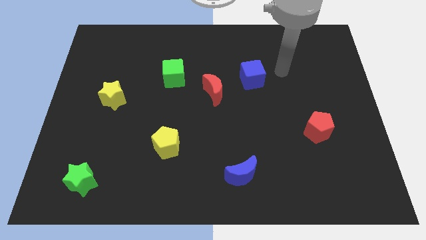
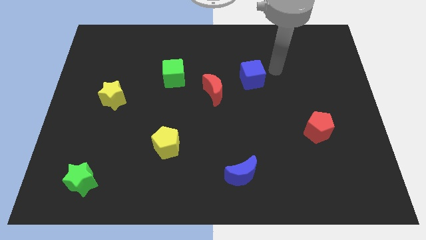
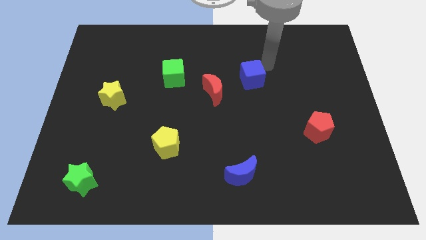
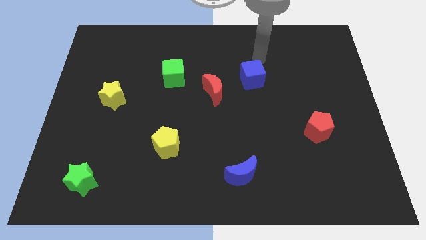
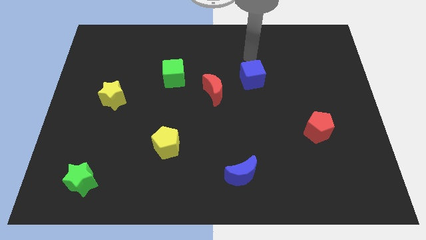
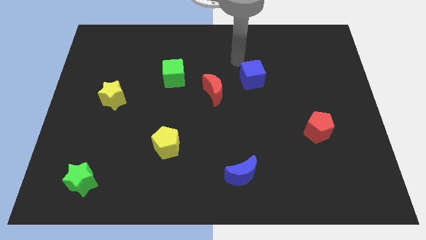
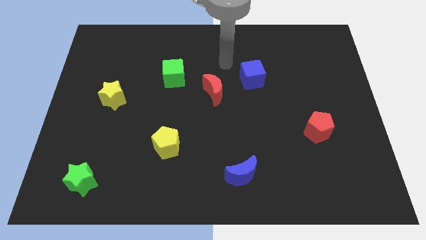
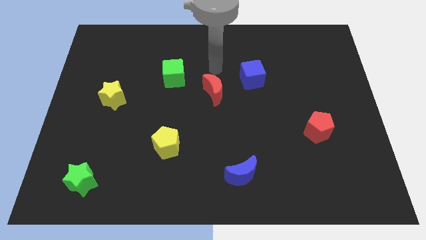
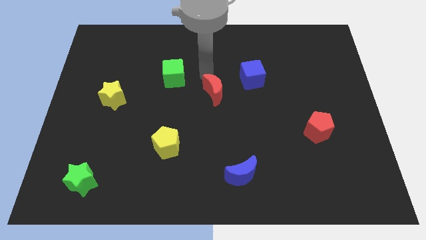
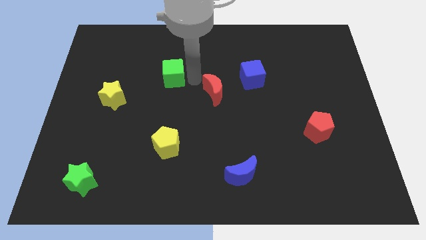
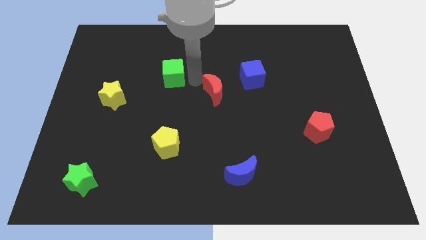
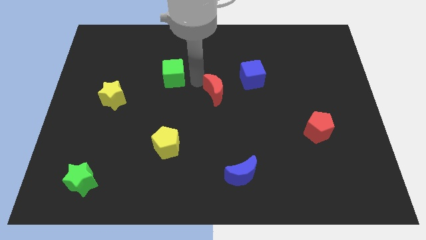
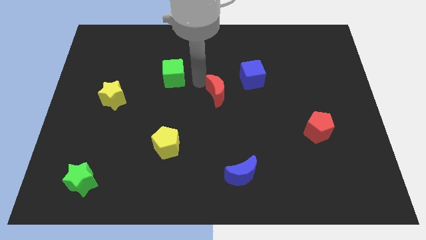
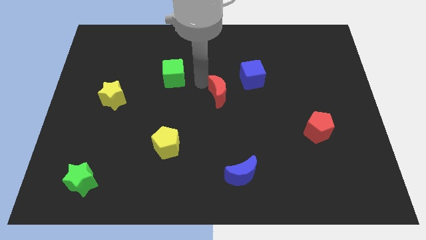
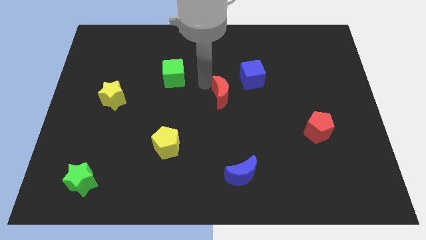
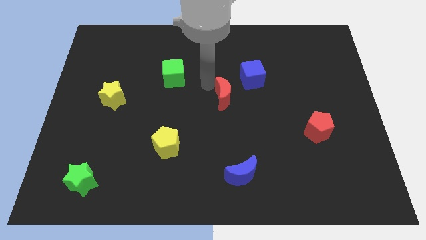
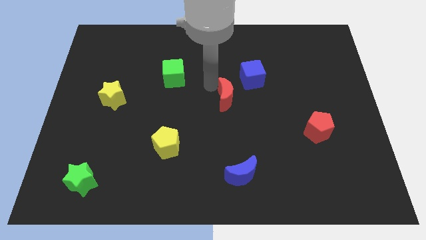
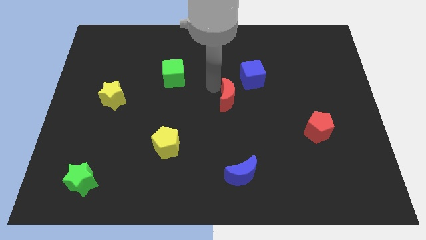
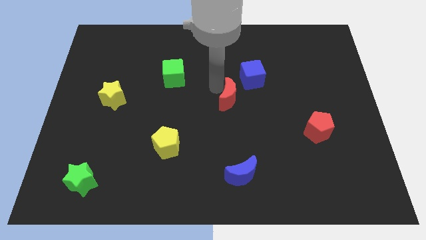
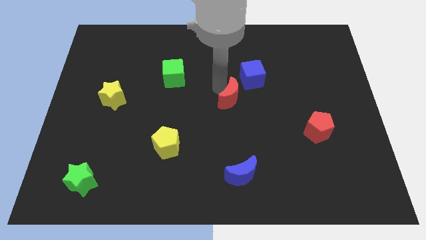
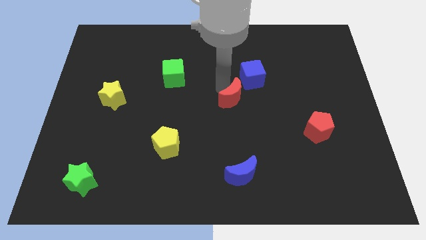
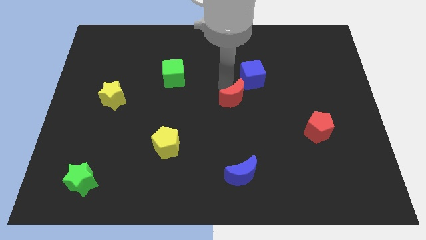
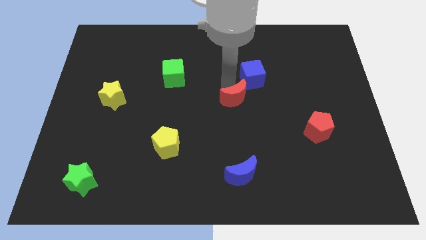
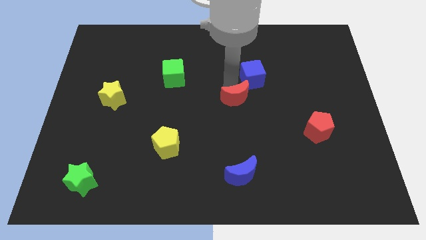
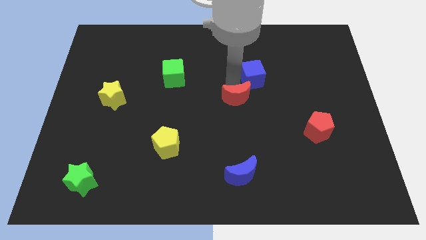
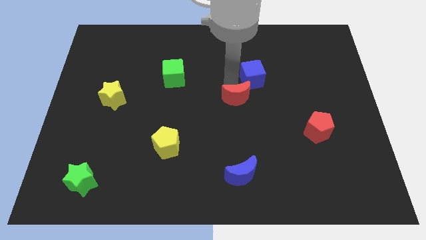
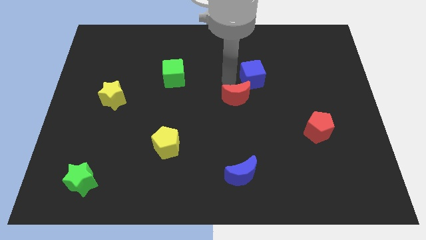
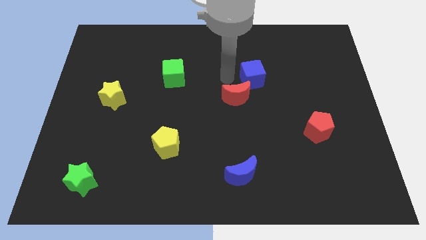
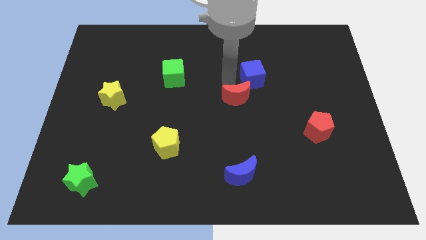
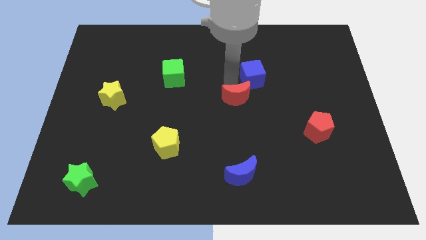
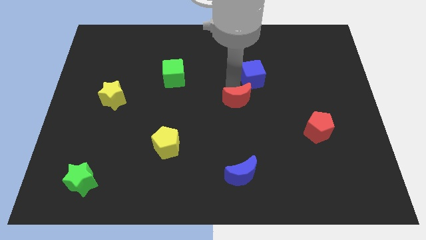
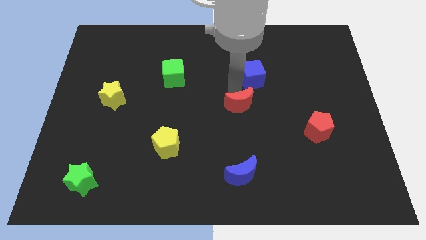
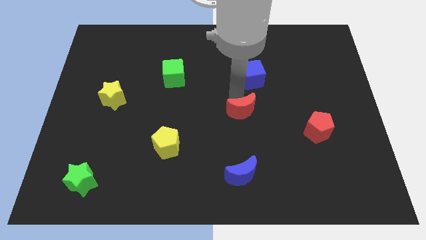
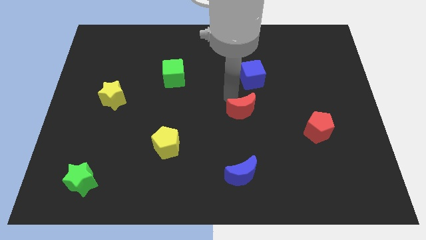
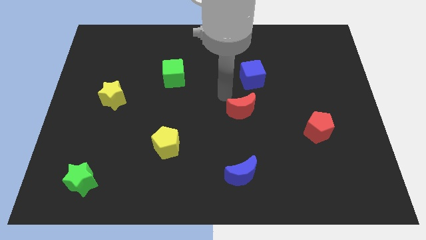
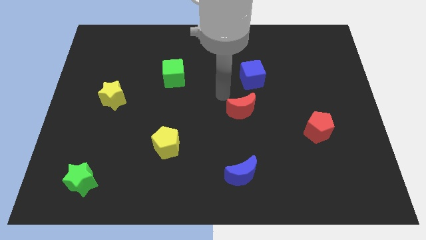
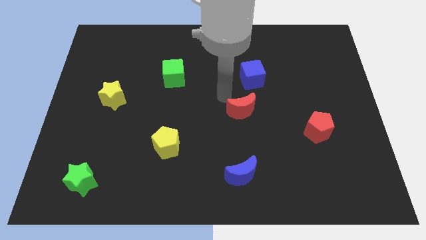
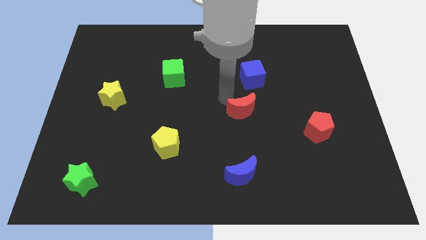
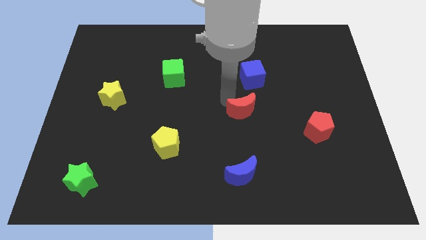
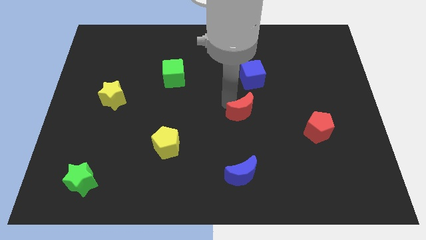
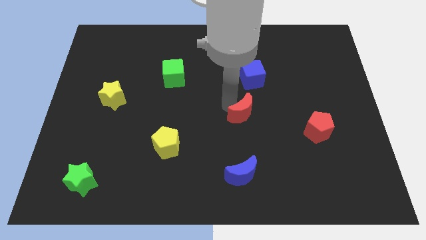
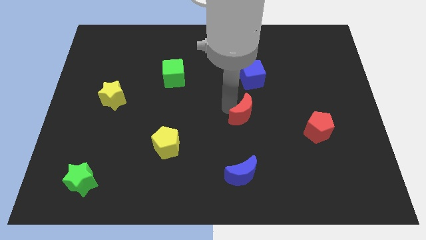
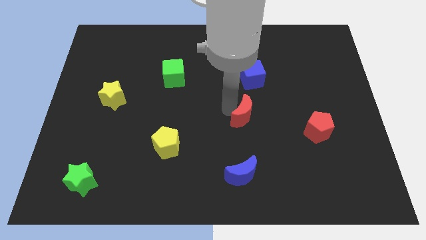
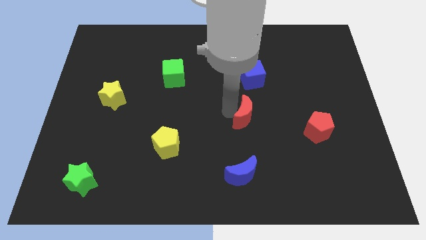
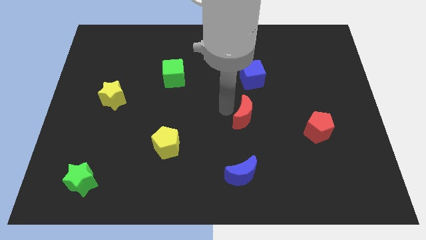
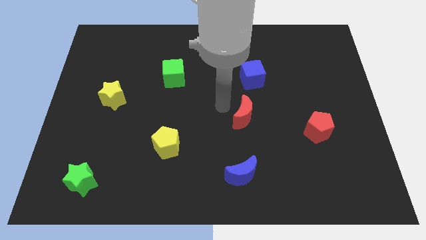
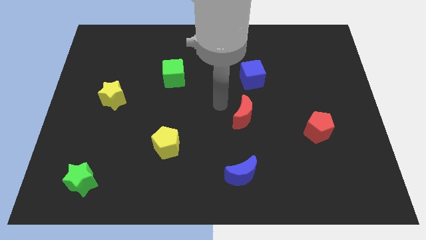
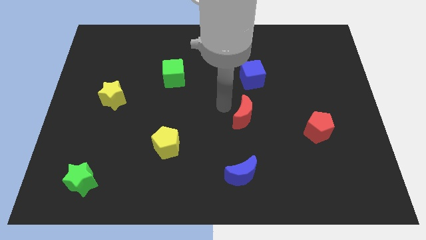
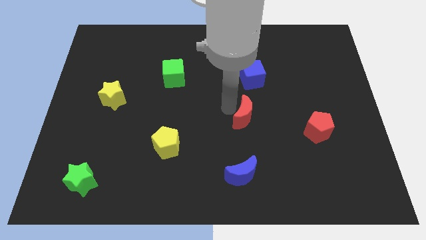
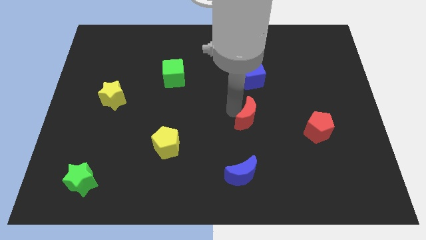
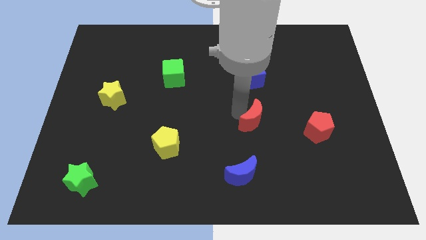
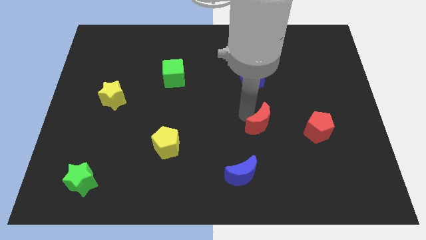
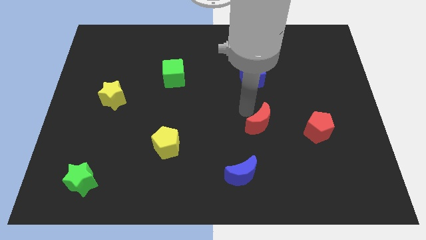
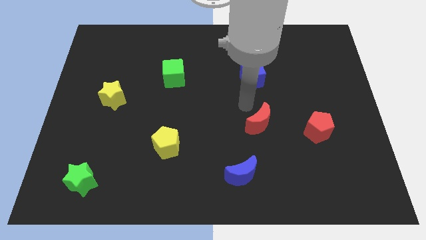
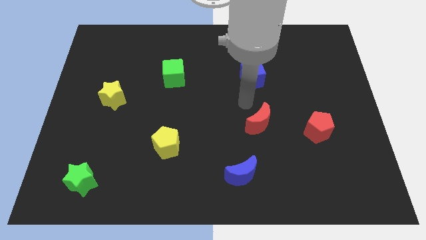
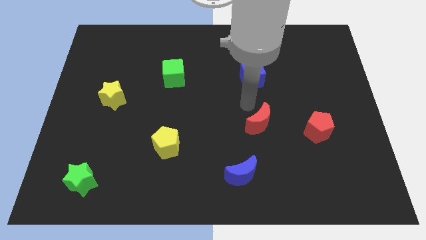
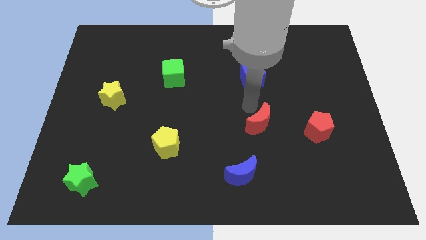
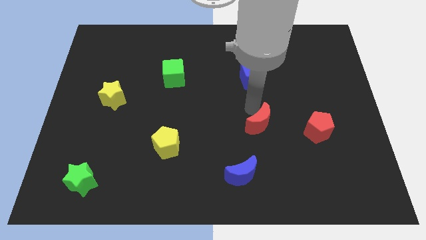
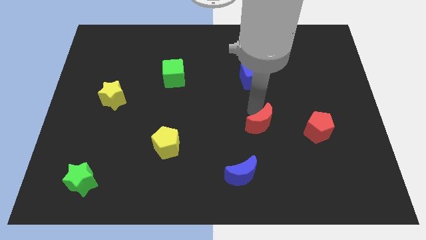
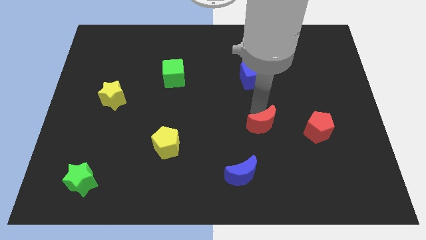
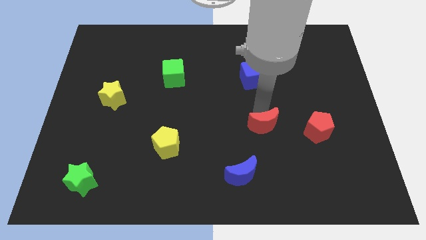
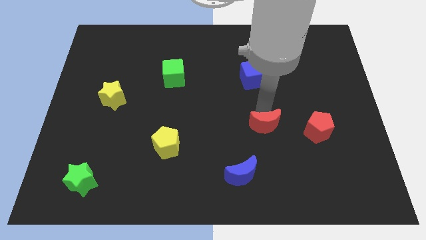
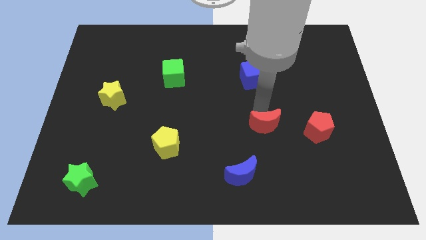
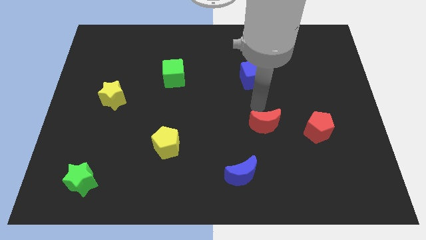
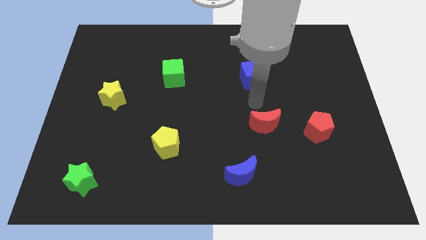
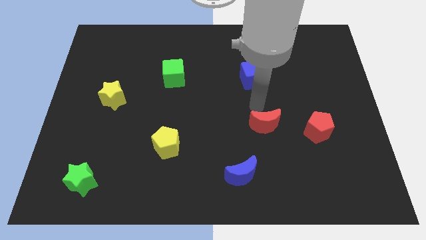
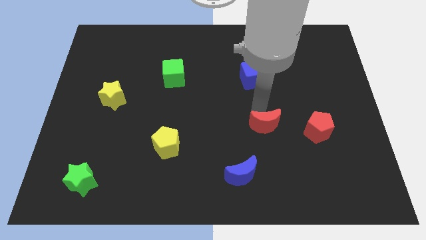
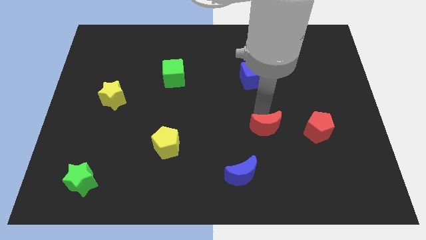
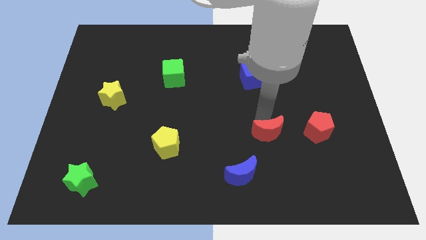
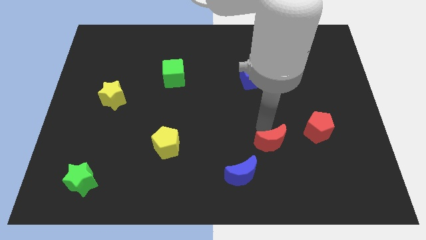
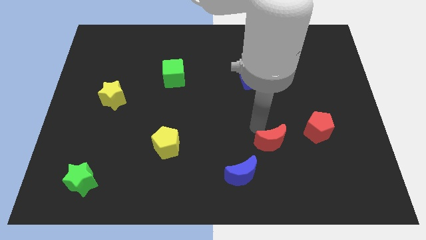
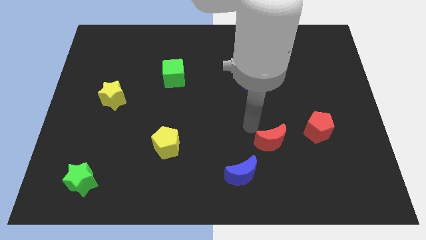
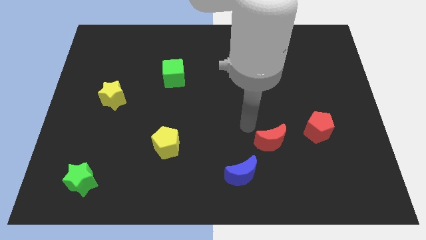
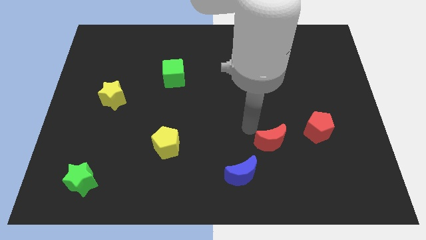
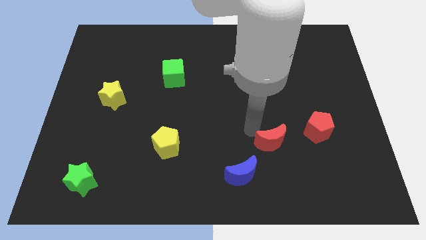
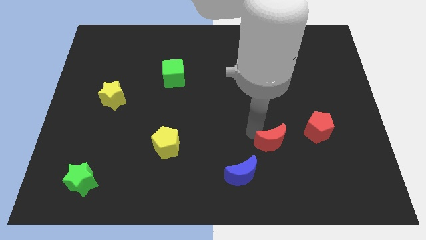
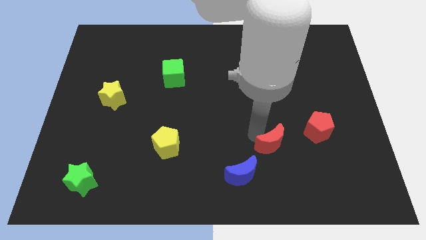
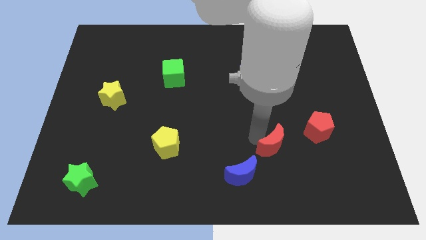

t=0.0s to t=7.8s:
move the red moon downwards and right diagonally
